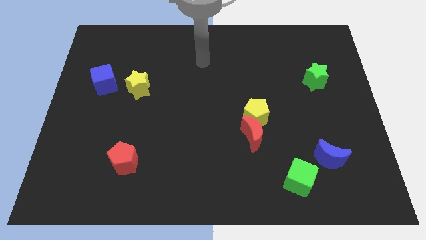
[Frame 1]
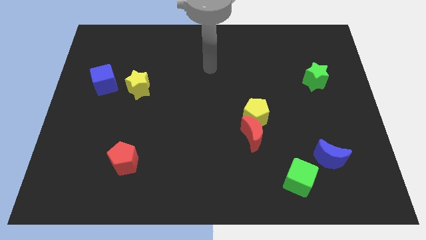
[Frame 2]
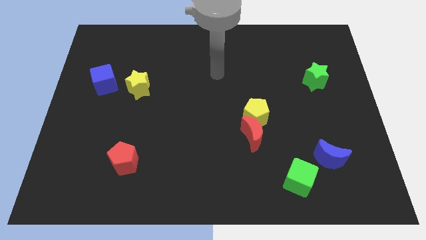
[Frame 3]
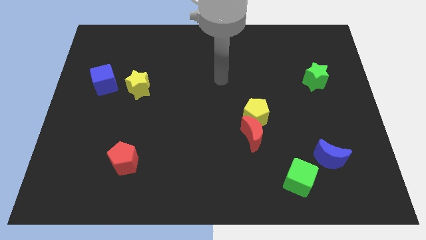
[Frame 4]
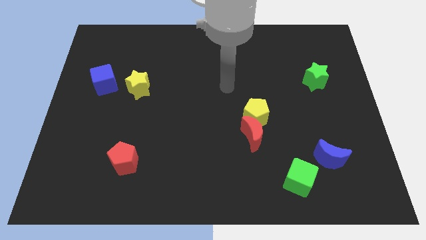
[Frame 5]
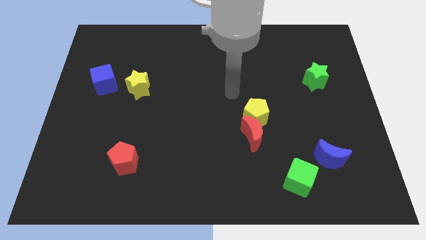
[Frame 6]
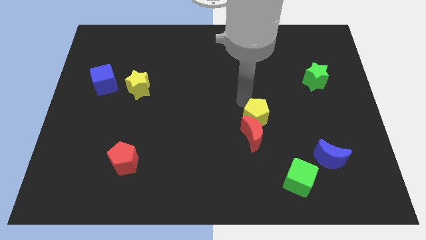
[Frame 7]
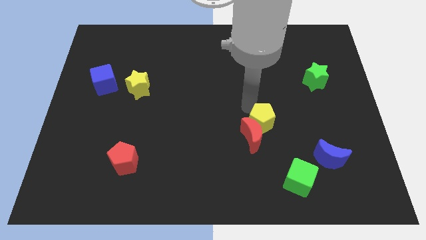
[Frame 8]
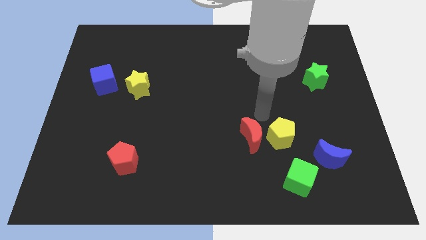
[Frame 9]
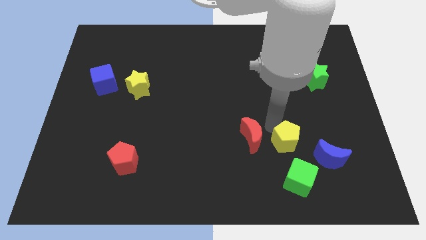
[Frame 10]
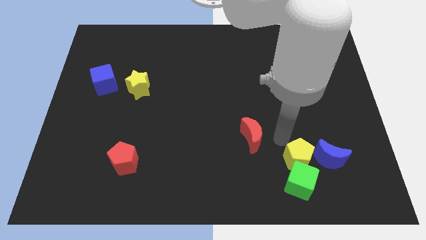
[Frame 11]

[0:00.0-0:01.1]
move the red moon away from the yellow pentagon

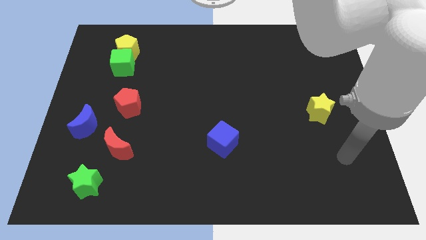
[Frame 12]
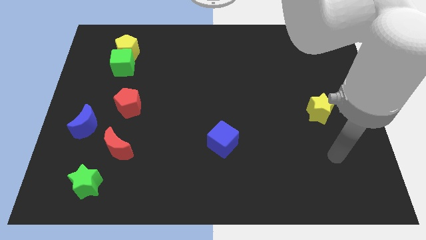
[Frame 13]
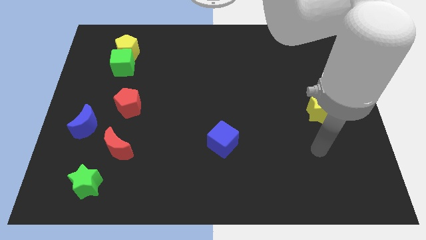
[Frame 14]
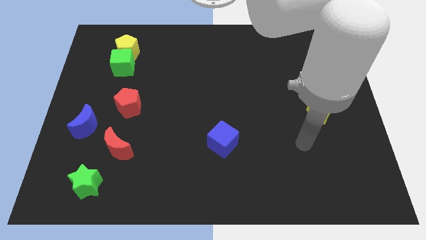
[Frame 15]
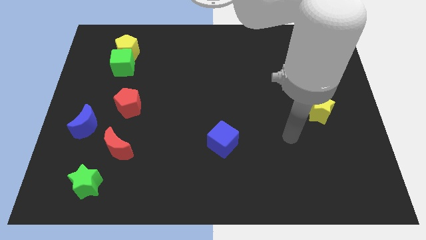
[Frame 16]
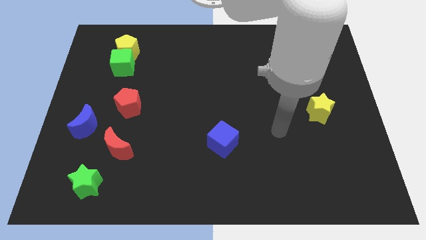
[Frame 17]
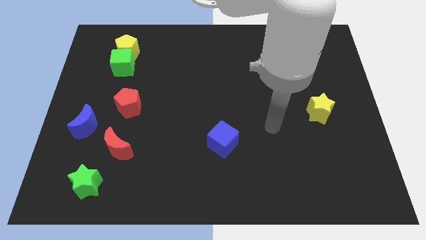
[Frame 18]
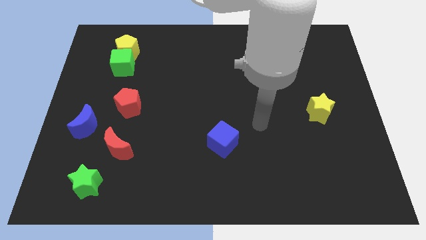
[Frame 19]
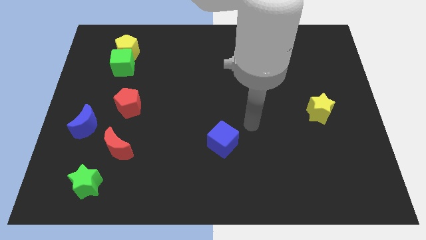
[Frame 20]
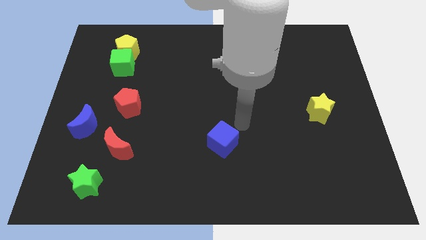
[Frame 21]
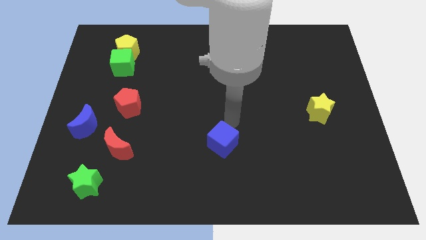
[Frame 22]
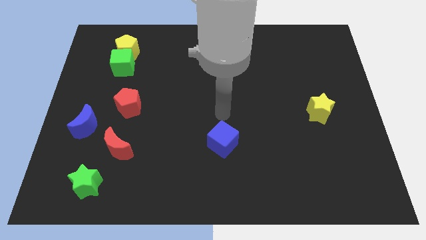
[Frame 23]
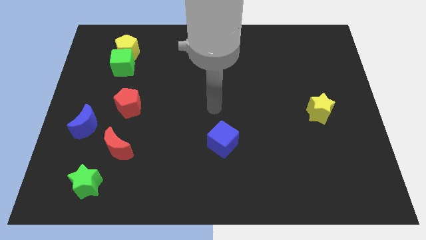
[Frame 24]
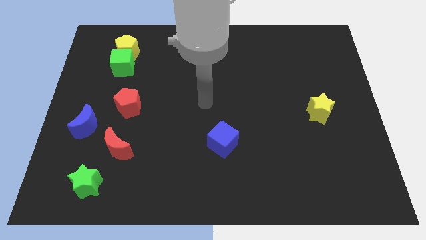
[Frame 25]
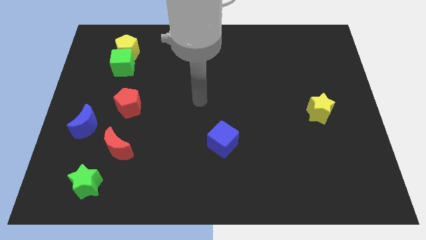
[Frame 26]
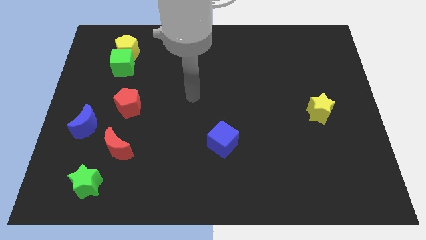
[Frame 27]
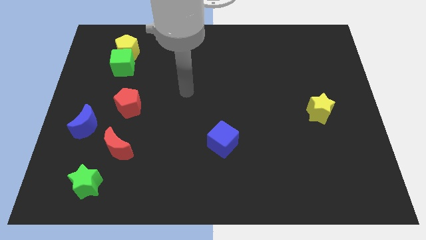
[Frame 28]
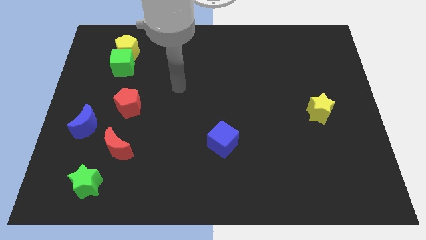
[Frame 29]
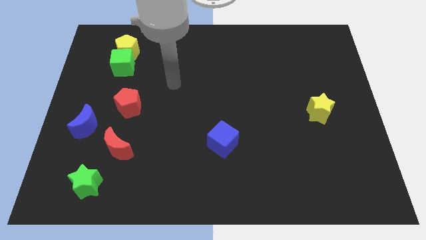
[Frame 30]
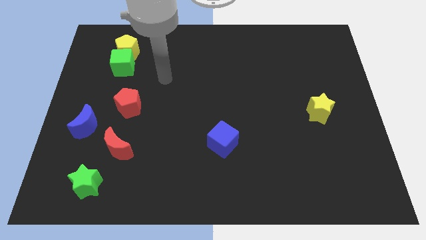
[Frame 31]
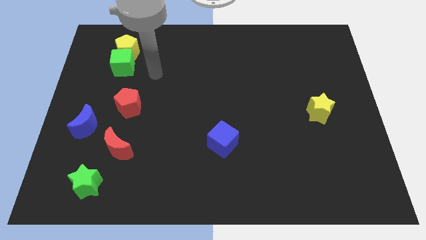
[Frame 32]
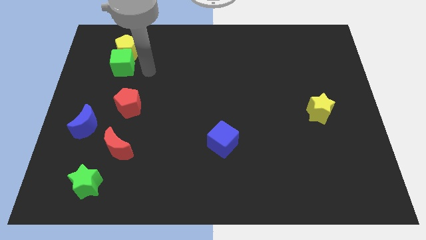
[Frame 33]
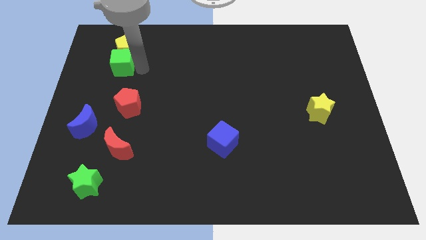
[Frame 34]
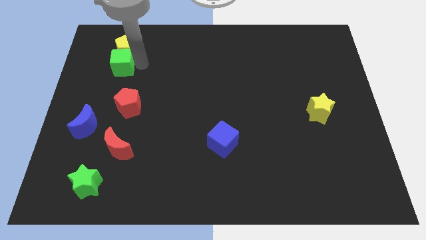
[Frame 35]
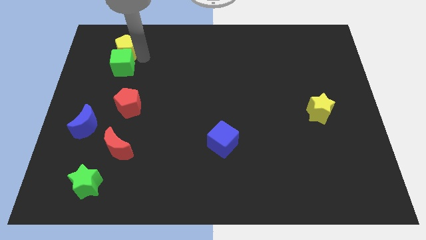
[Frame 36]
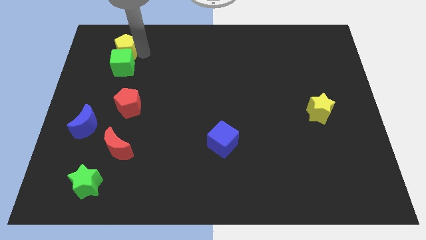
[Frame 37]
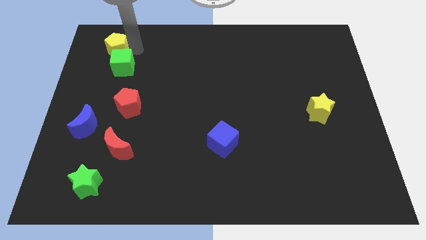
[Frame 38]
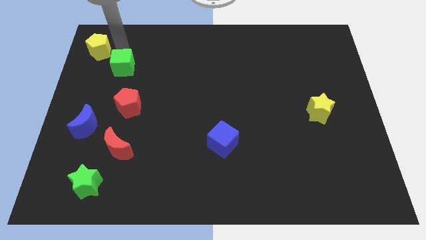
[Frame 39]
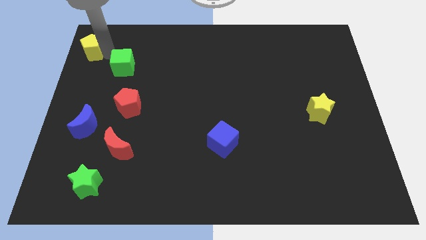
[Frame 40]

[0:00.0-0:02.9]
pull the green cube apart from the yellow pentagon

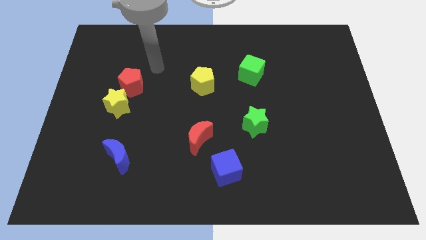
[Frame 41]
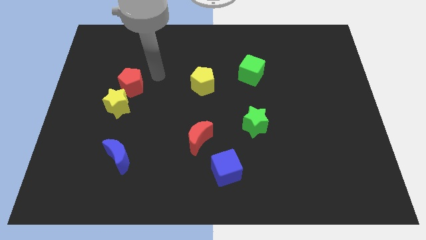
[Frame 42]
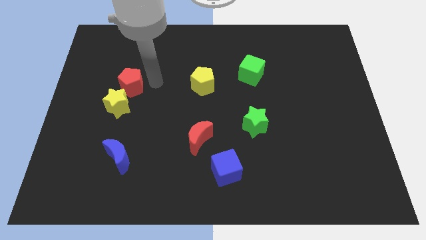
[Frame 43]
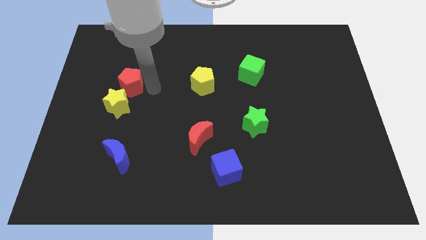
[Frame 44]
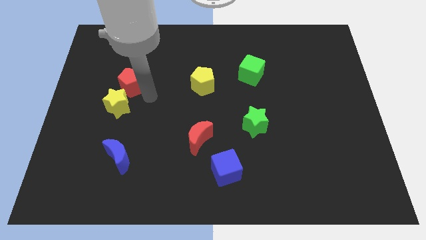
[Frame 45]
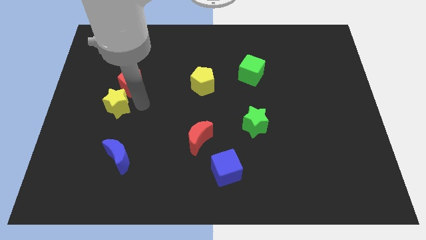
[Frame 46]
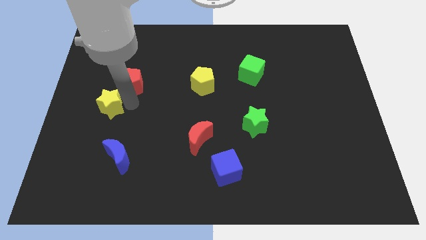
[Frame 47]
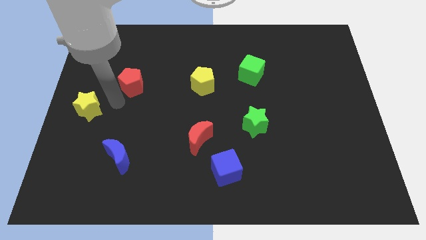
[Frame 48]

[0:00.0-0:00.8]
separate the red pentagon from the yellow star

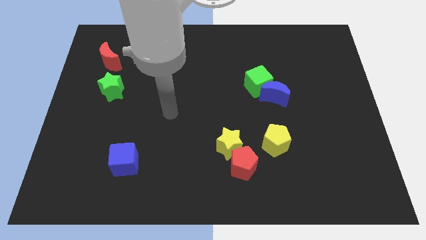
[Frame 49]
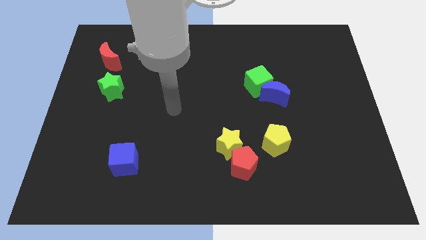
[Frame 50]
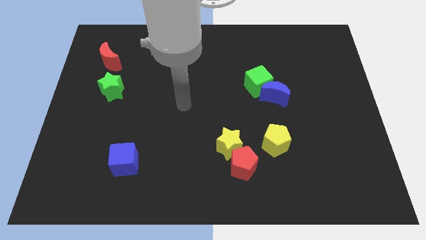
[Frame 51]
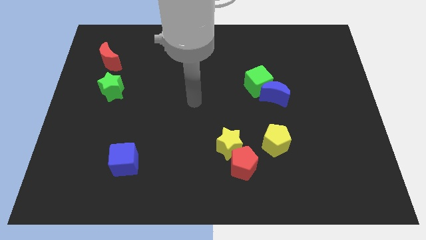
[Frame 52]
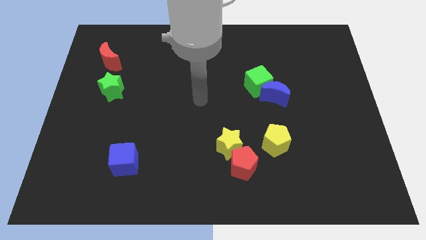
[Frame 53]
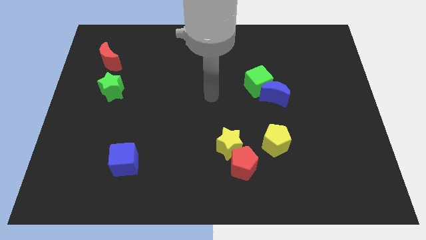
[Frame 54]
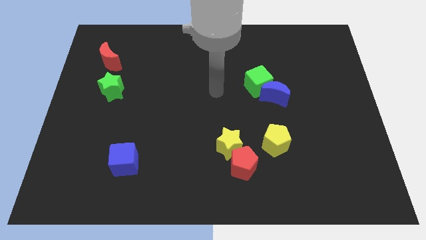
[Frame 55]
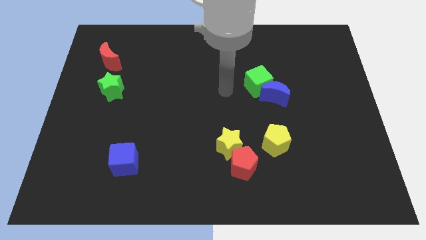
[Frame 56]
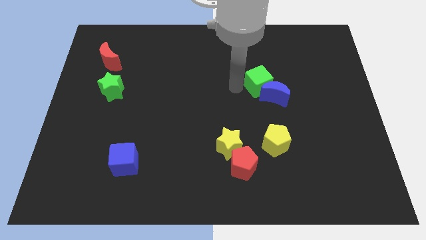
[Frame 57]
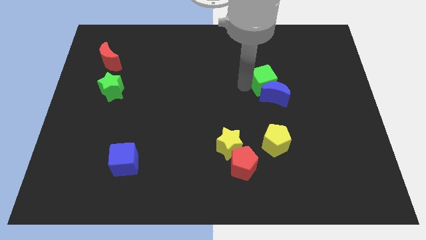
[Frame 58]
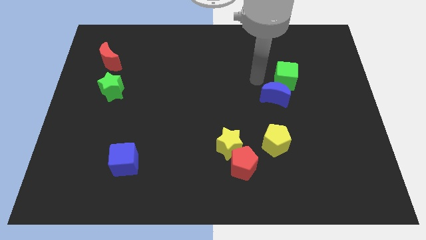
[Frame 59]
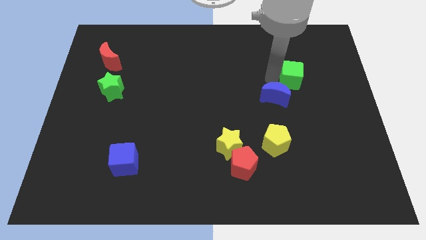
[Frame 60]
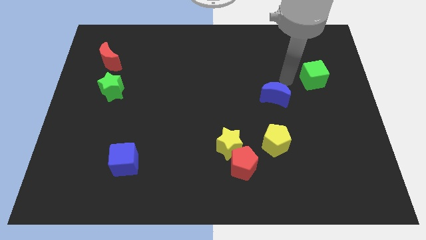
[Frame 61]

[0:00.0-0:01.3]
pull the blue moon apart from the green cube

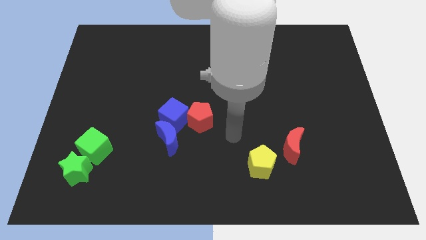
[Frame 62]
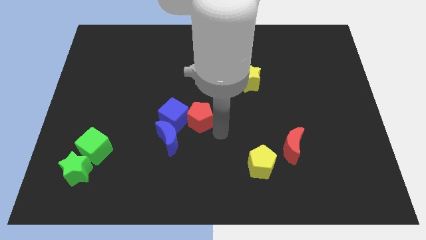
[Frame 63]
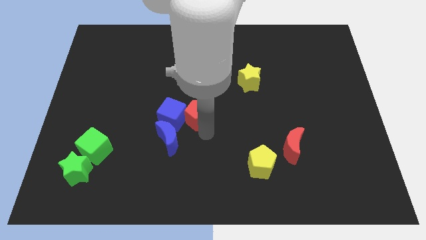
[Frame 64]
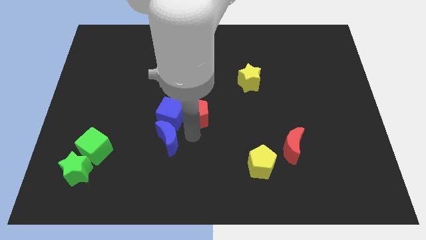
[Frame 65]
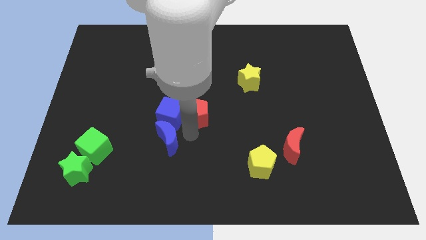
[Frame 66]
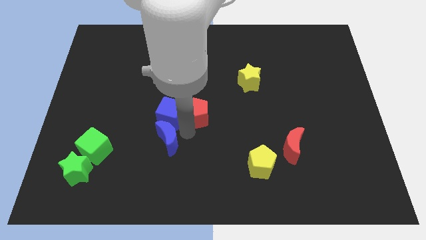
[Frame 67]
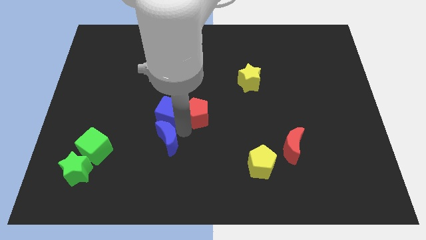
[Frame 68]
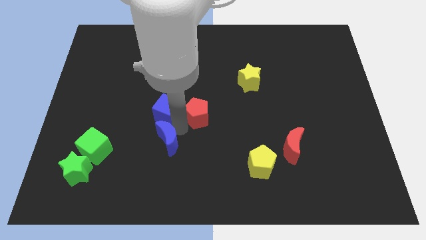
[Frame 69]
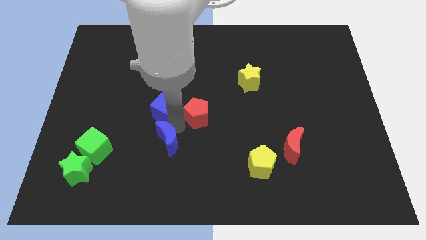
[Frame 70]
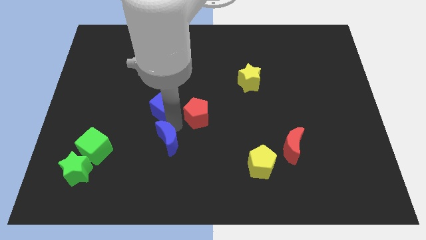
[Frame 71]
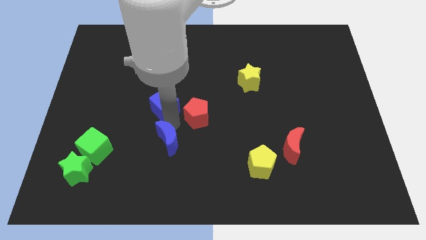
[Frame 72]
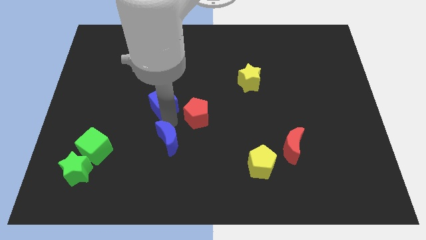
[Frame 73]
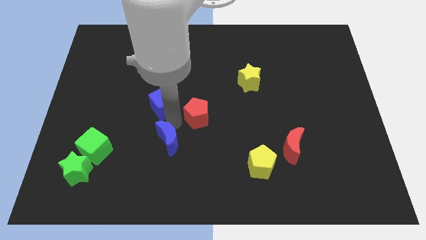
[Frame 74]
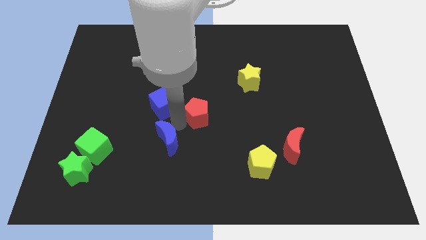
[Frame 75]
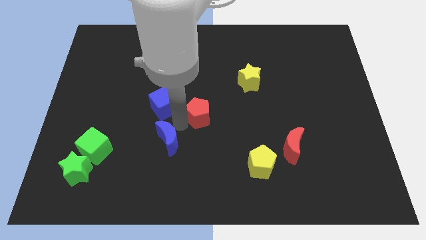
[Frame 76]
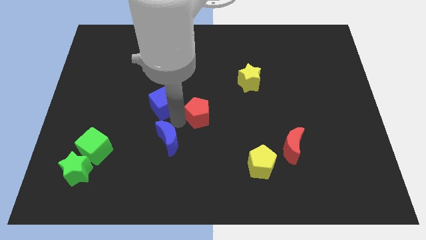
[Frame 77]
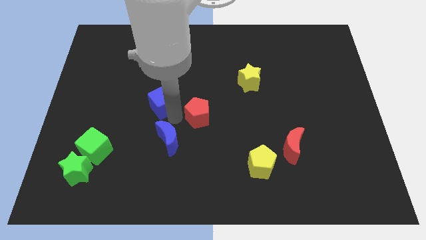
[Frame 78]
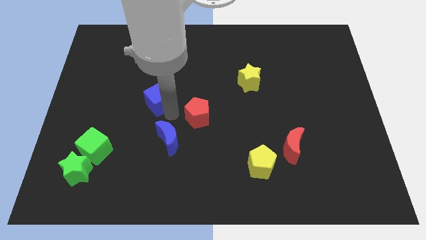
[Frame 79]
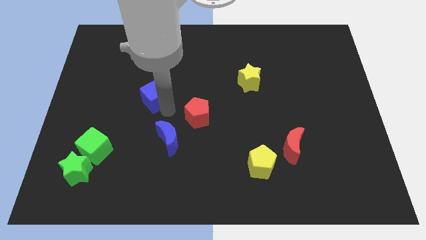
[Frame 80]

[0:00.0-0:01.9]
pull the blue cube apart from the blue moon and red pentagon

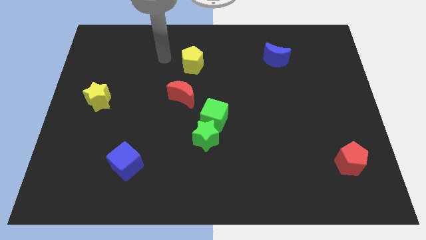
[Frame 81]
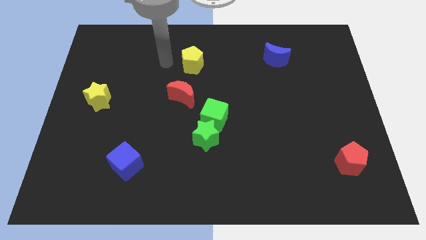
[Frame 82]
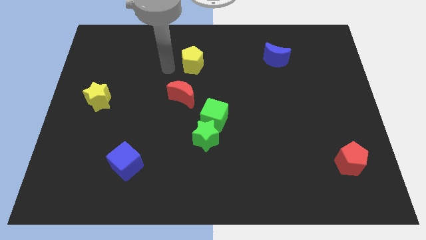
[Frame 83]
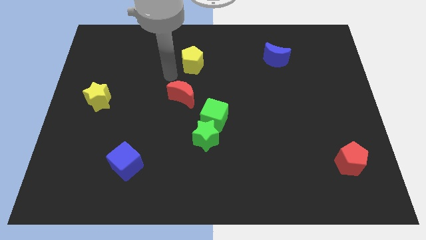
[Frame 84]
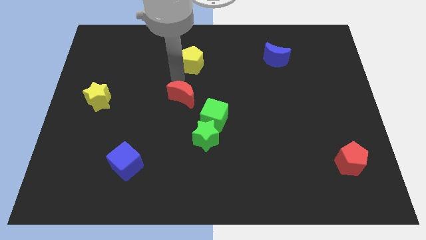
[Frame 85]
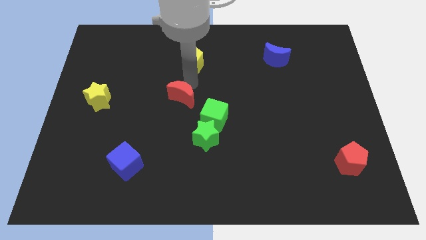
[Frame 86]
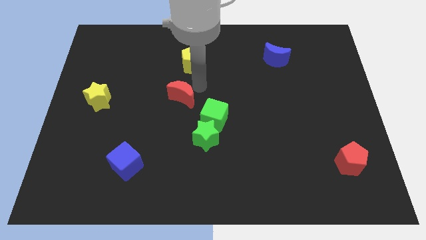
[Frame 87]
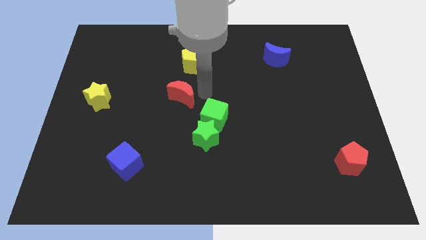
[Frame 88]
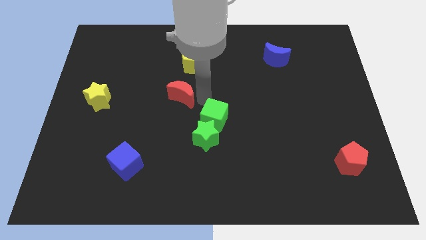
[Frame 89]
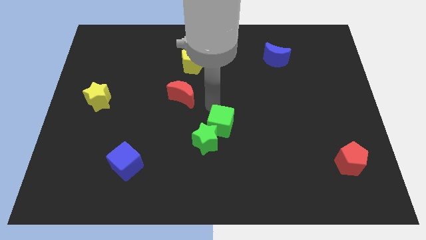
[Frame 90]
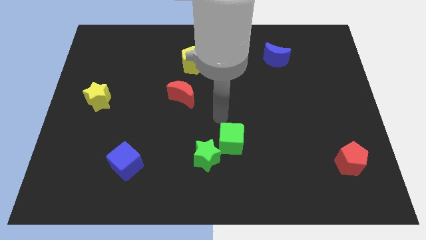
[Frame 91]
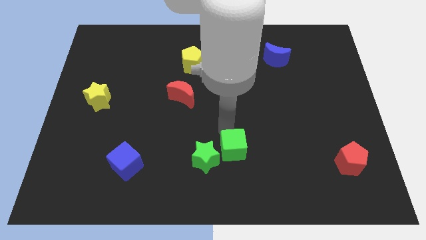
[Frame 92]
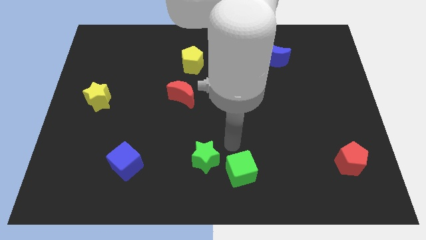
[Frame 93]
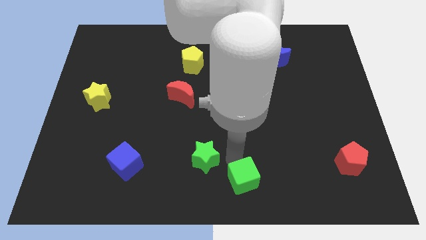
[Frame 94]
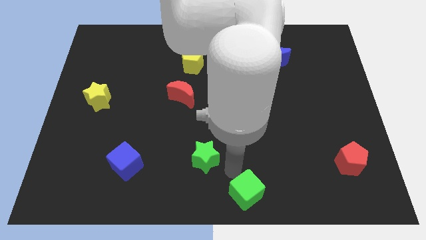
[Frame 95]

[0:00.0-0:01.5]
move the green star away from the green cube
